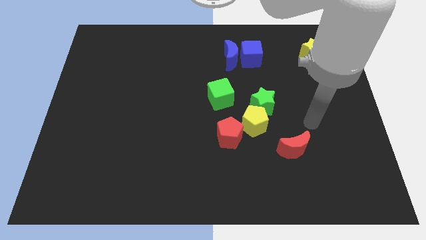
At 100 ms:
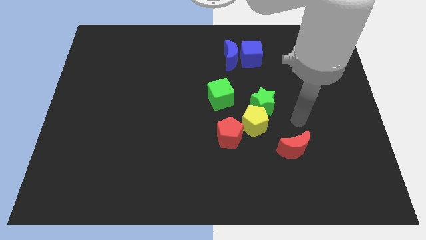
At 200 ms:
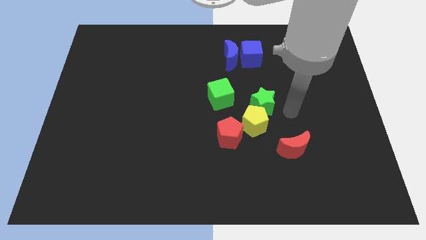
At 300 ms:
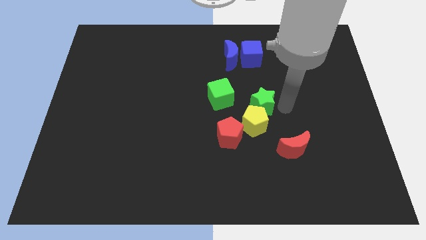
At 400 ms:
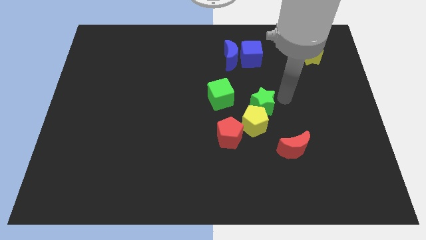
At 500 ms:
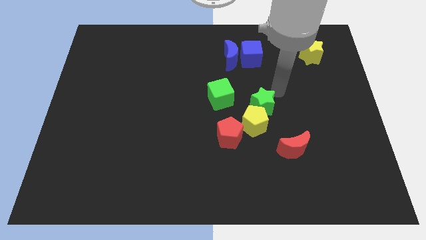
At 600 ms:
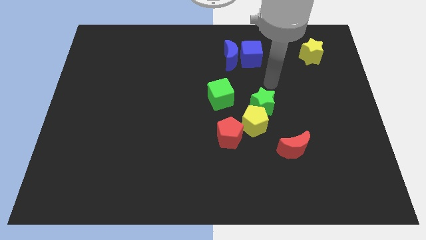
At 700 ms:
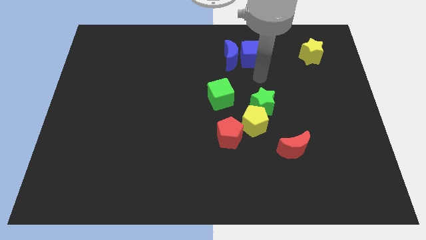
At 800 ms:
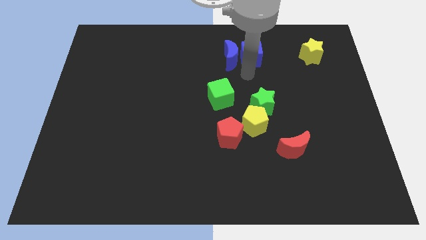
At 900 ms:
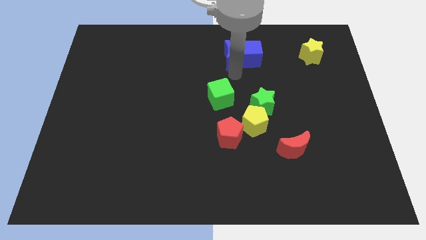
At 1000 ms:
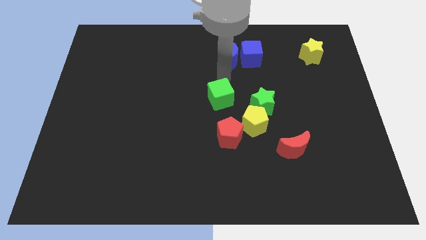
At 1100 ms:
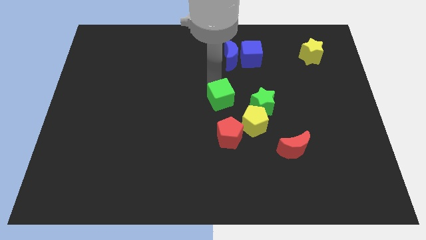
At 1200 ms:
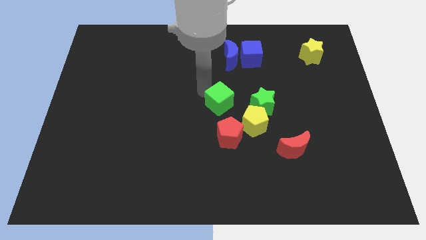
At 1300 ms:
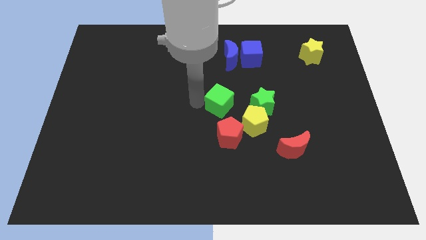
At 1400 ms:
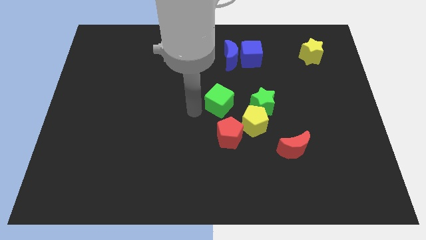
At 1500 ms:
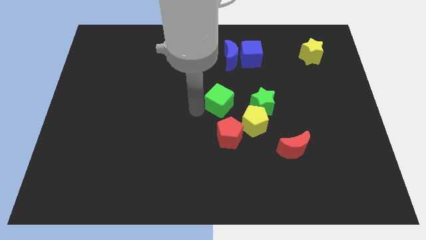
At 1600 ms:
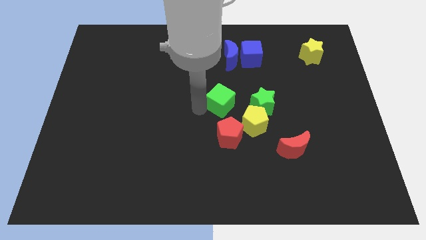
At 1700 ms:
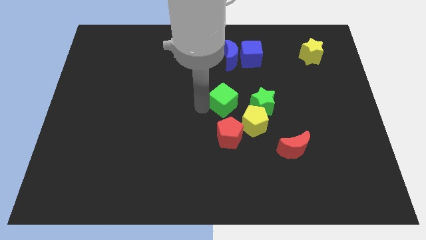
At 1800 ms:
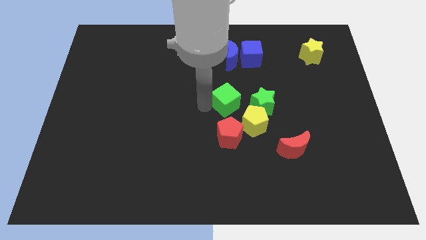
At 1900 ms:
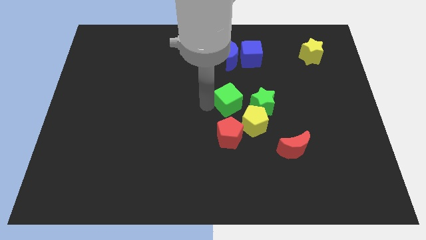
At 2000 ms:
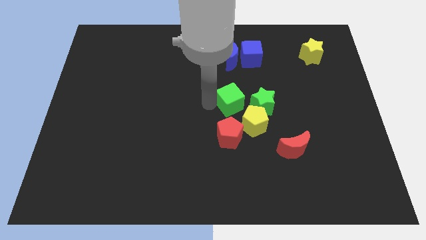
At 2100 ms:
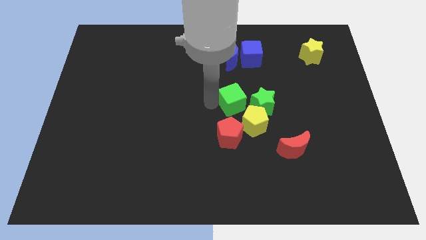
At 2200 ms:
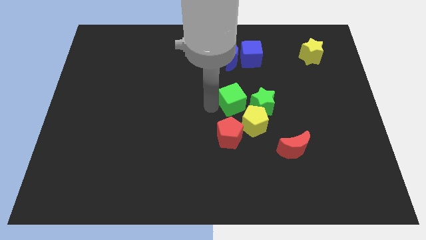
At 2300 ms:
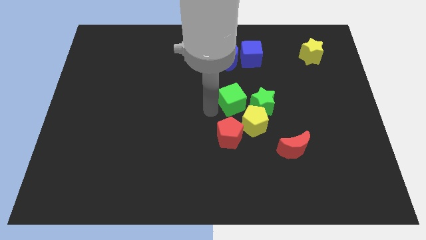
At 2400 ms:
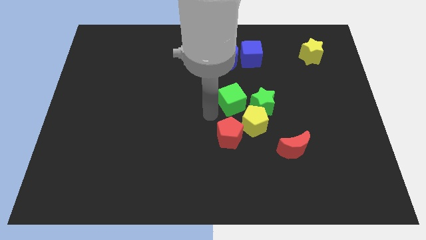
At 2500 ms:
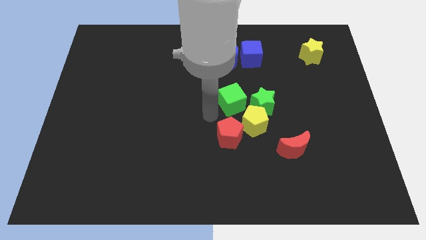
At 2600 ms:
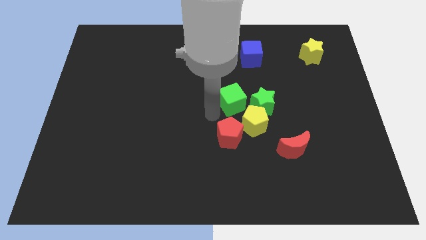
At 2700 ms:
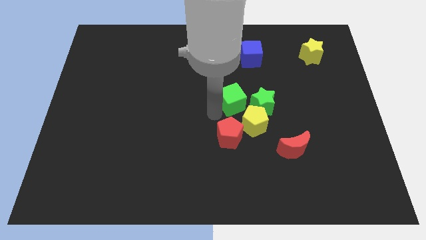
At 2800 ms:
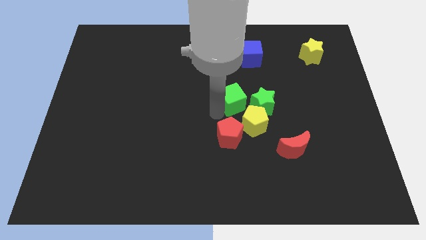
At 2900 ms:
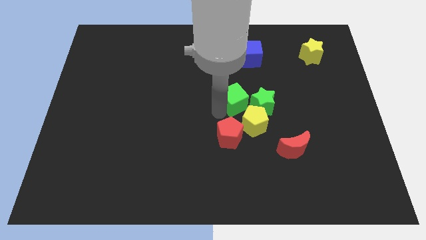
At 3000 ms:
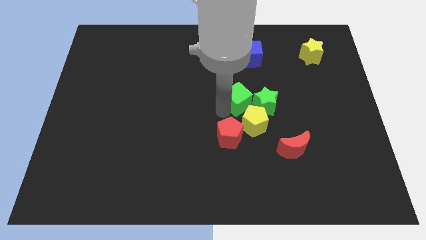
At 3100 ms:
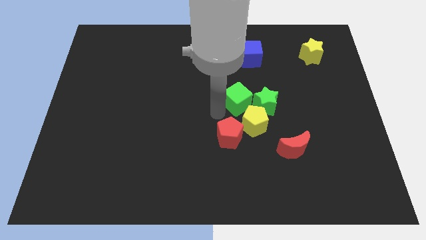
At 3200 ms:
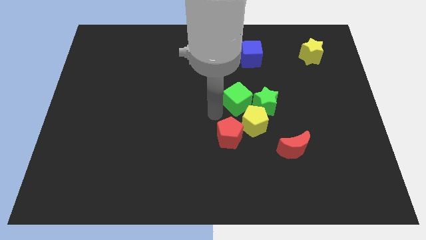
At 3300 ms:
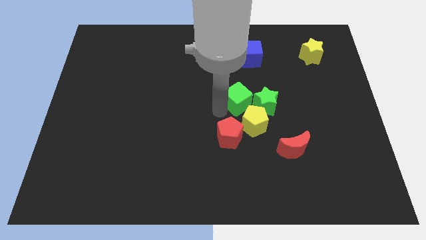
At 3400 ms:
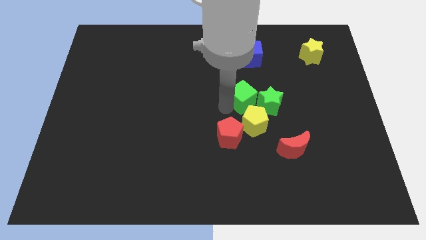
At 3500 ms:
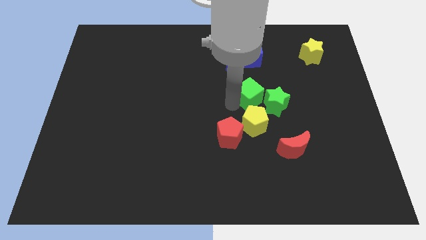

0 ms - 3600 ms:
slightly move the green cube right

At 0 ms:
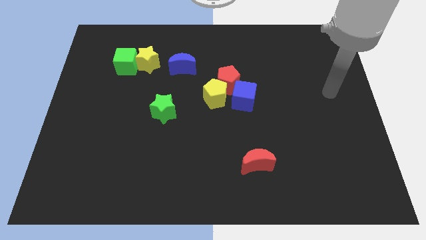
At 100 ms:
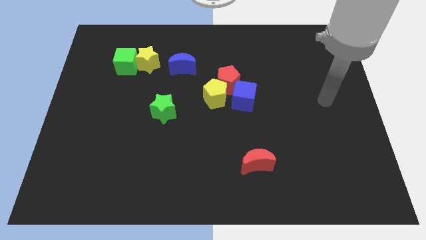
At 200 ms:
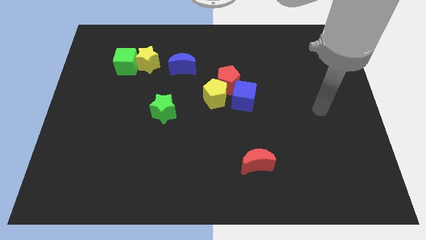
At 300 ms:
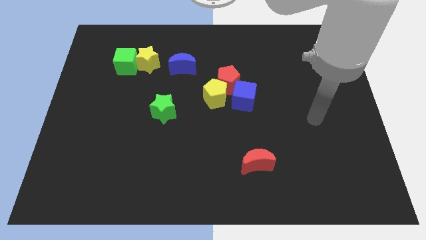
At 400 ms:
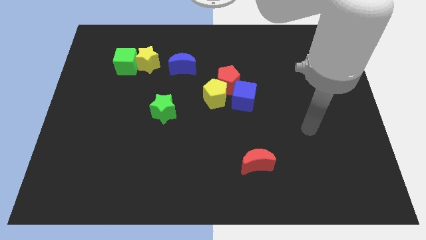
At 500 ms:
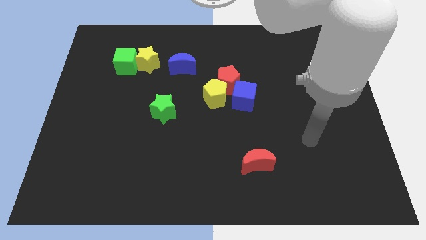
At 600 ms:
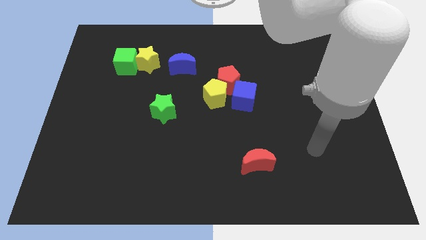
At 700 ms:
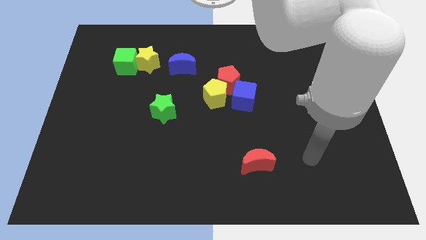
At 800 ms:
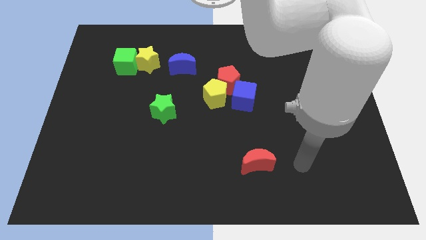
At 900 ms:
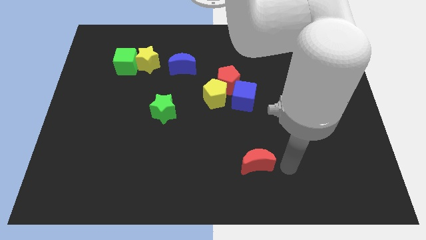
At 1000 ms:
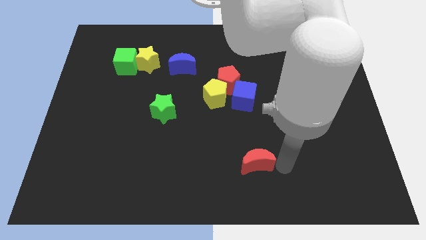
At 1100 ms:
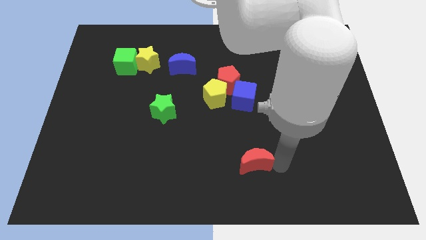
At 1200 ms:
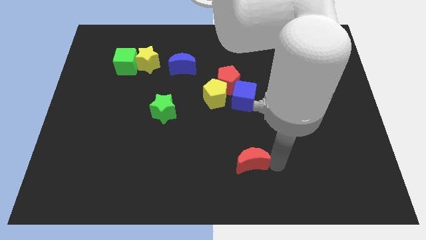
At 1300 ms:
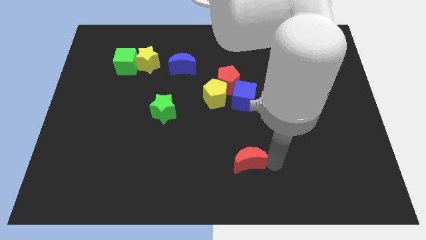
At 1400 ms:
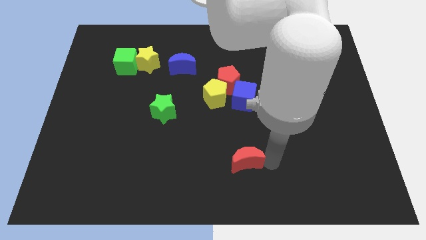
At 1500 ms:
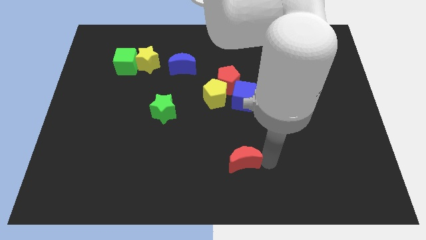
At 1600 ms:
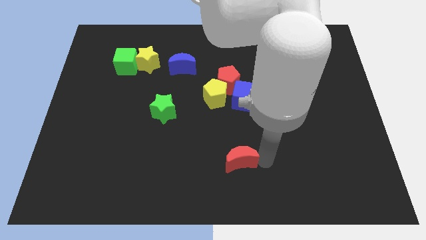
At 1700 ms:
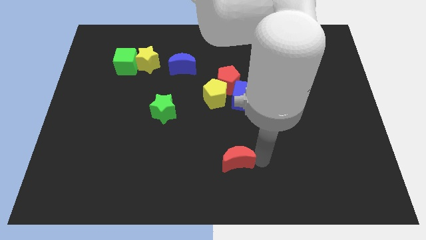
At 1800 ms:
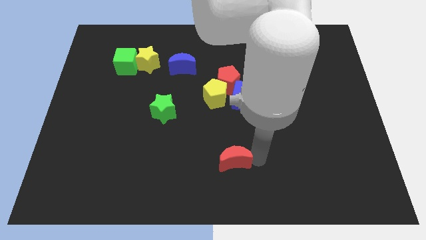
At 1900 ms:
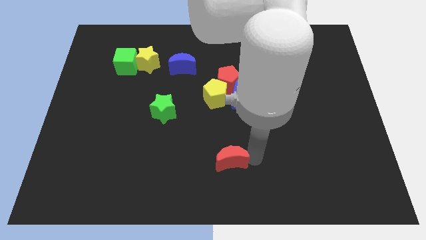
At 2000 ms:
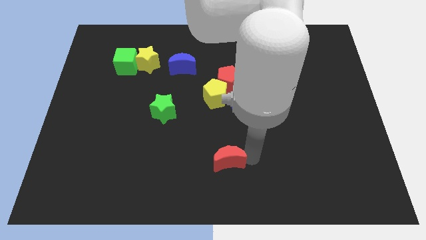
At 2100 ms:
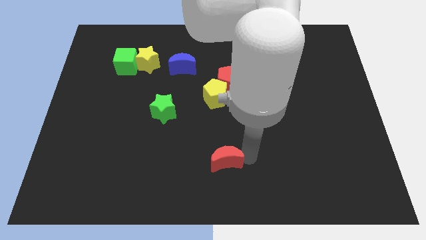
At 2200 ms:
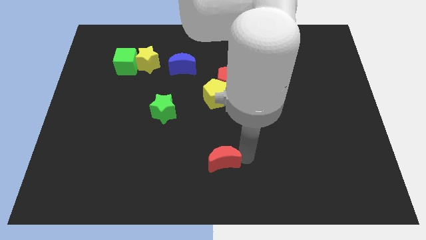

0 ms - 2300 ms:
push the red moon to the left a little bit

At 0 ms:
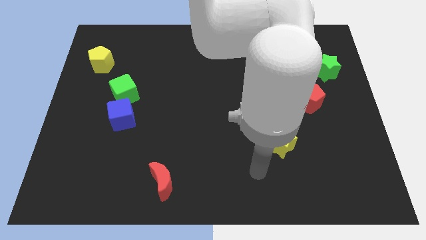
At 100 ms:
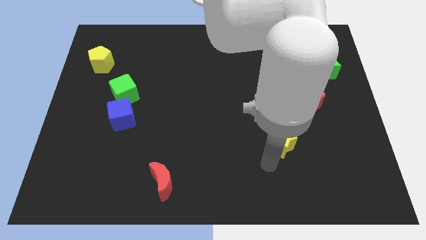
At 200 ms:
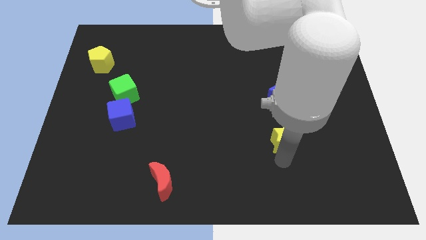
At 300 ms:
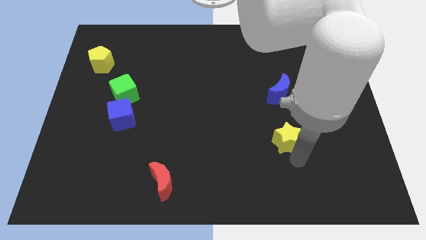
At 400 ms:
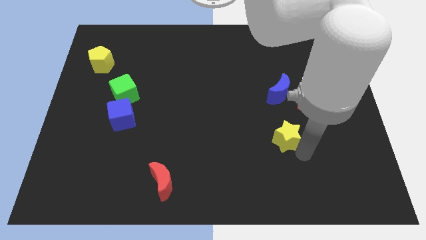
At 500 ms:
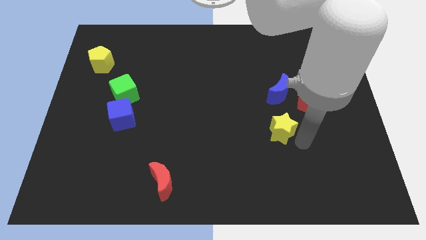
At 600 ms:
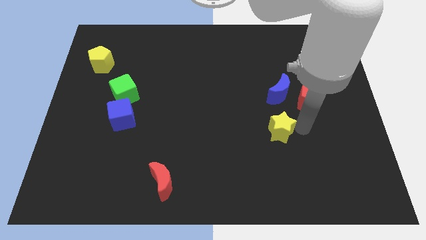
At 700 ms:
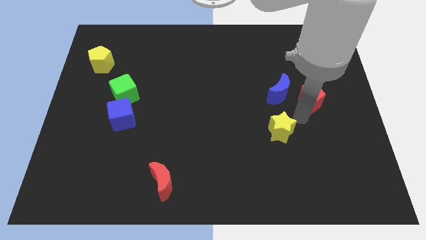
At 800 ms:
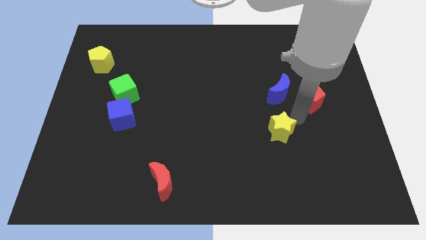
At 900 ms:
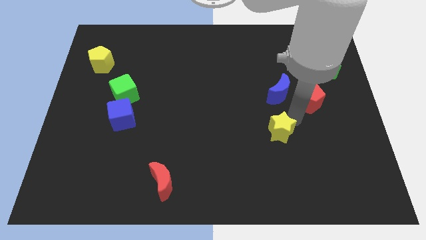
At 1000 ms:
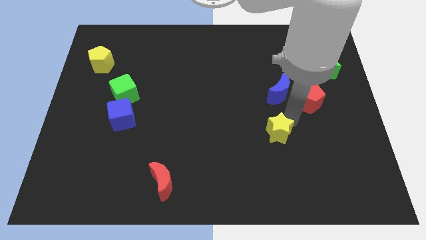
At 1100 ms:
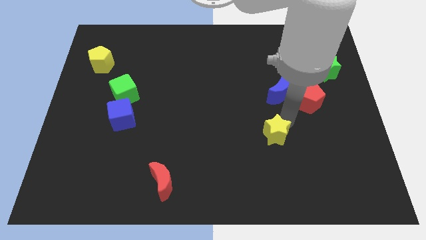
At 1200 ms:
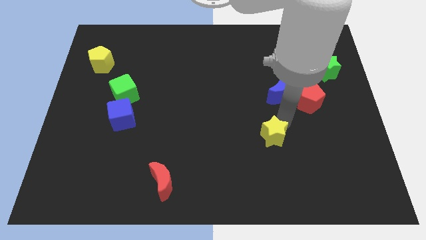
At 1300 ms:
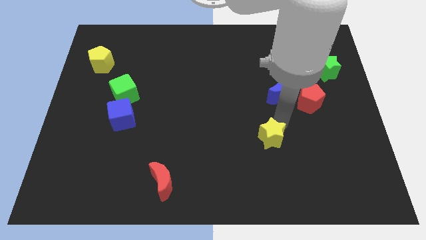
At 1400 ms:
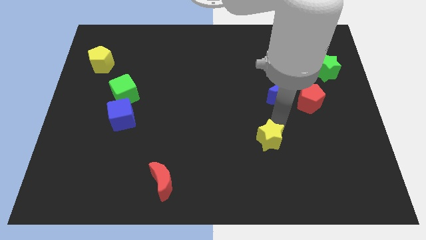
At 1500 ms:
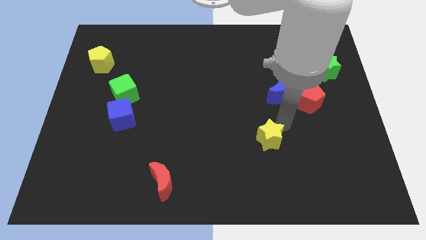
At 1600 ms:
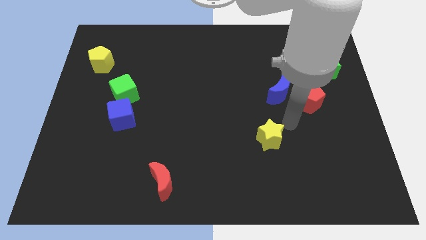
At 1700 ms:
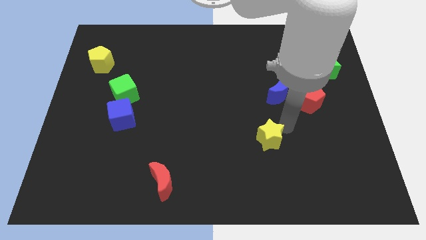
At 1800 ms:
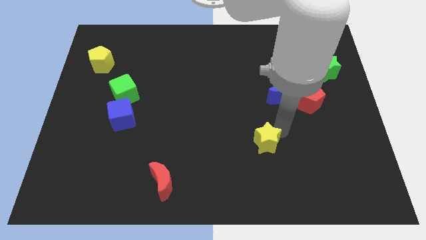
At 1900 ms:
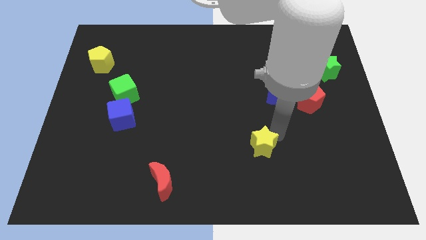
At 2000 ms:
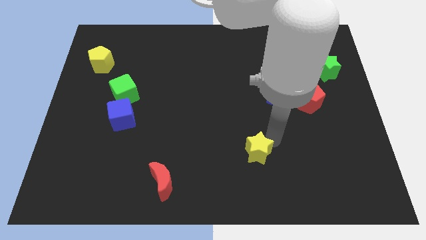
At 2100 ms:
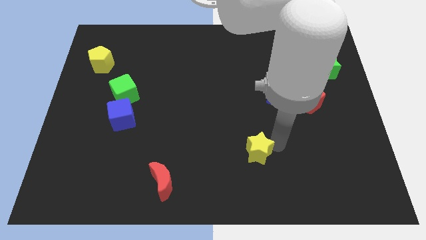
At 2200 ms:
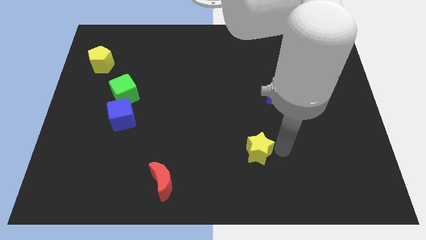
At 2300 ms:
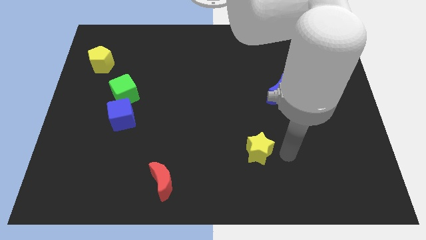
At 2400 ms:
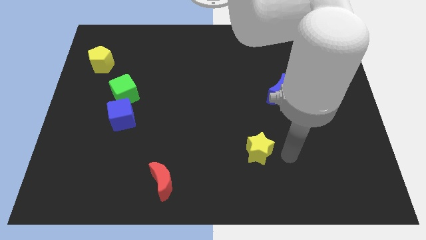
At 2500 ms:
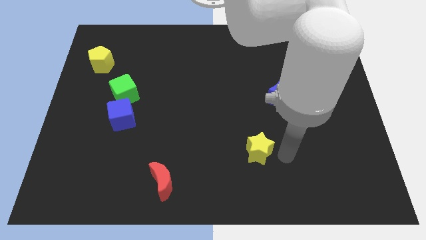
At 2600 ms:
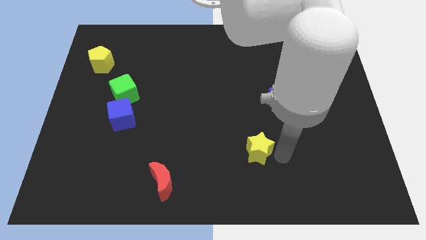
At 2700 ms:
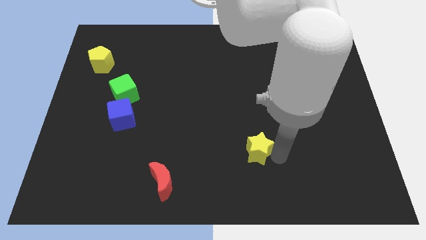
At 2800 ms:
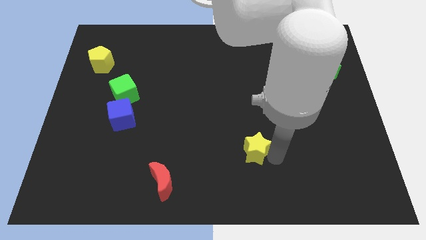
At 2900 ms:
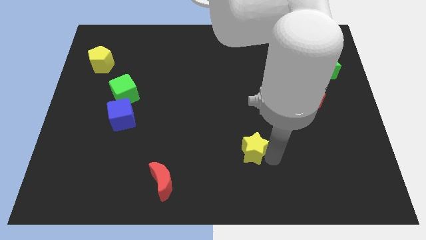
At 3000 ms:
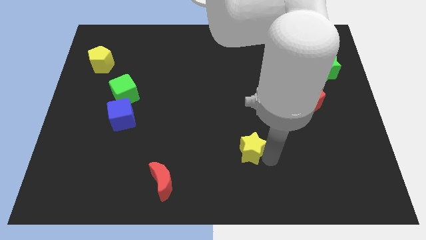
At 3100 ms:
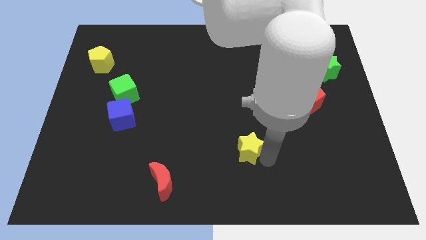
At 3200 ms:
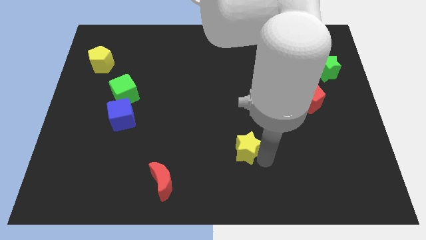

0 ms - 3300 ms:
slightly push the yellow star to the left
